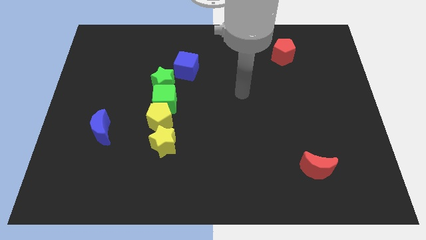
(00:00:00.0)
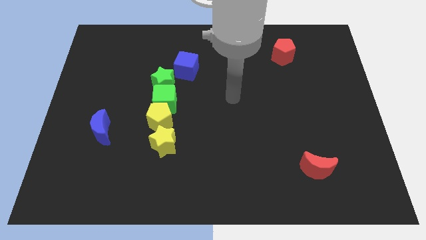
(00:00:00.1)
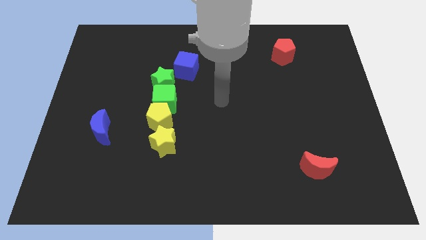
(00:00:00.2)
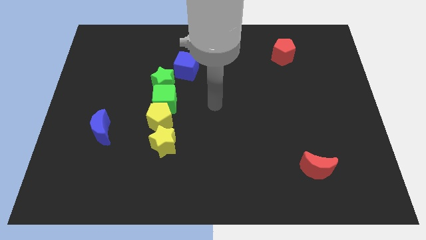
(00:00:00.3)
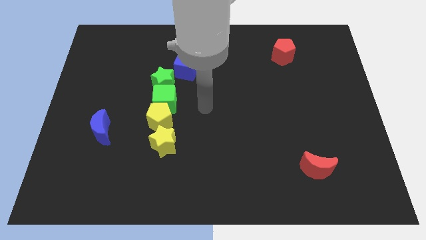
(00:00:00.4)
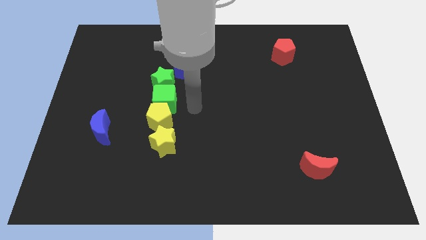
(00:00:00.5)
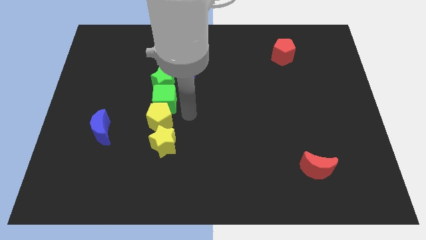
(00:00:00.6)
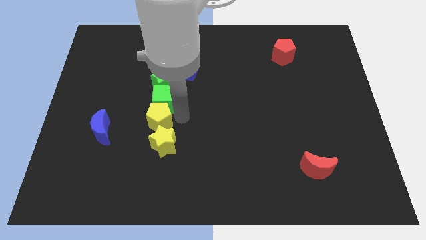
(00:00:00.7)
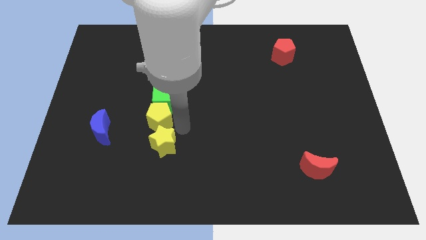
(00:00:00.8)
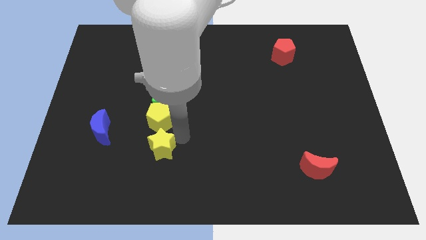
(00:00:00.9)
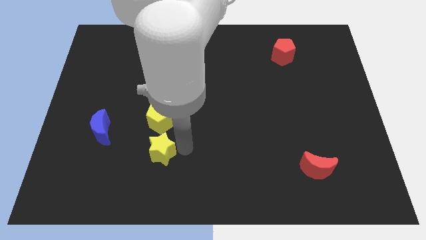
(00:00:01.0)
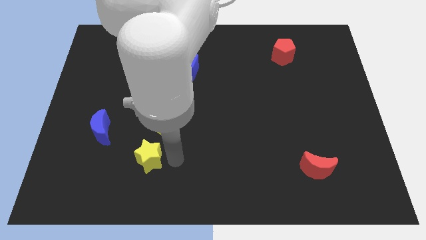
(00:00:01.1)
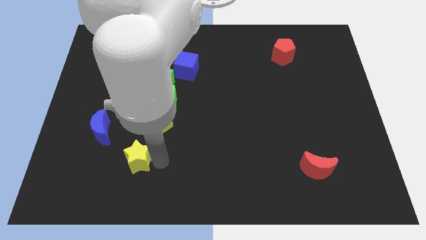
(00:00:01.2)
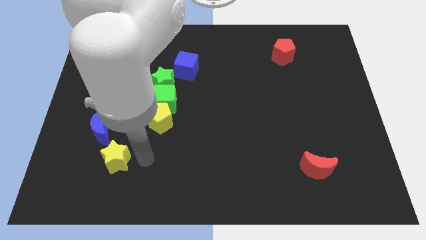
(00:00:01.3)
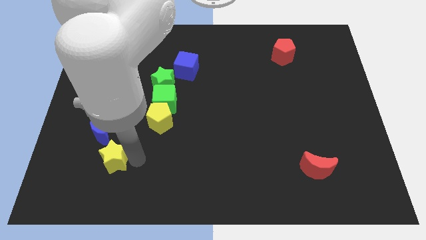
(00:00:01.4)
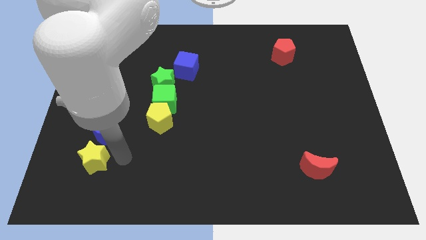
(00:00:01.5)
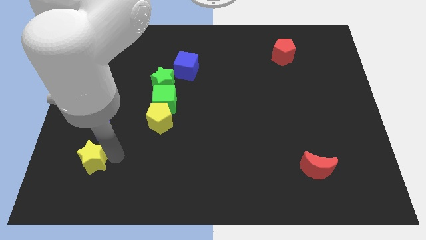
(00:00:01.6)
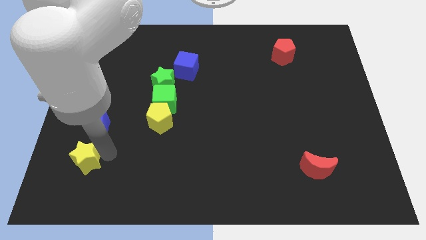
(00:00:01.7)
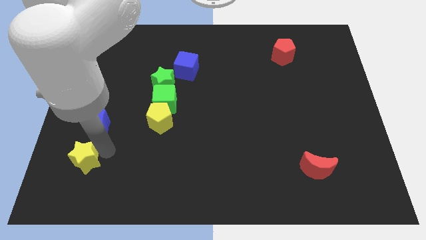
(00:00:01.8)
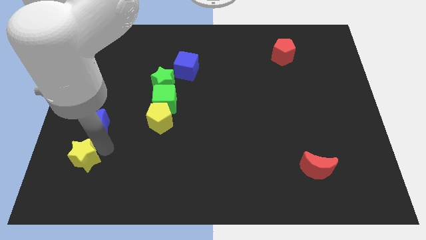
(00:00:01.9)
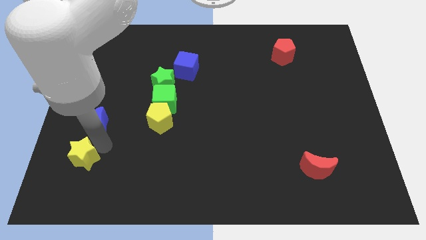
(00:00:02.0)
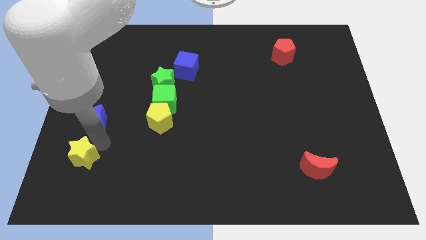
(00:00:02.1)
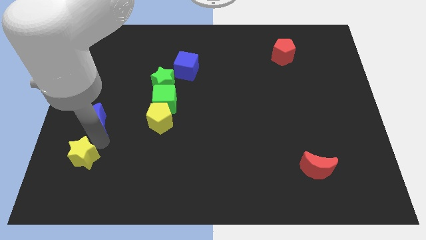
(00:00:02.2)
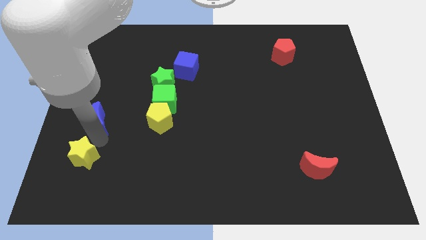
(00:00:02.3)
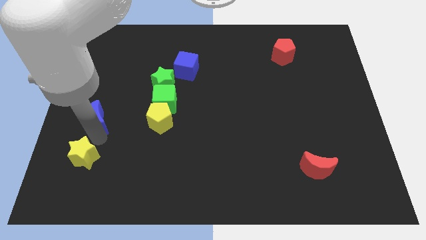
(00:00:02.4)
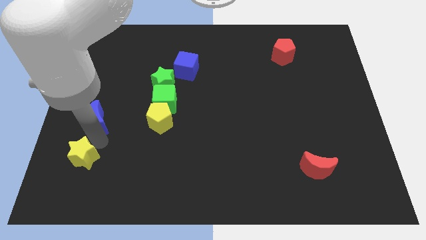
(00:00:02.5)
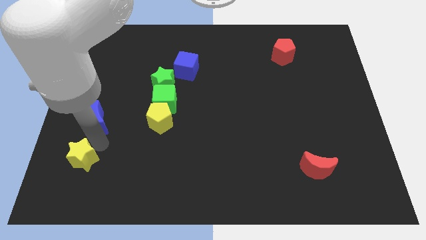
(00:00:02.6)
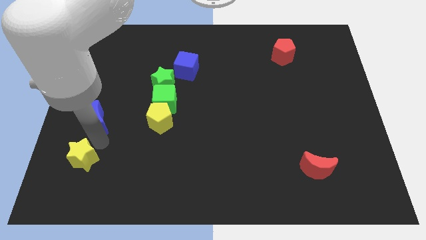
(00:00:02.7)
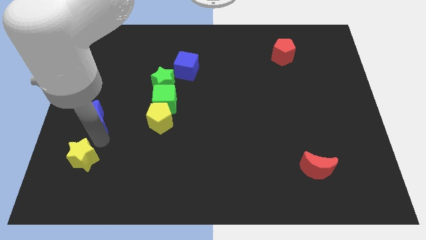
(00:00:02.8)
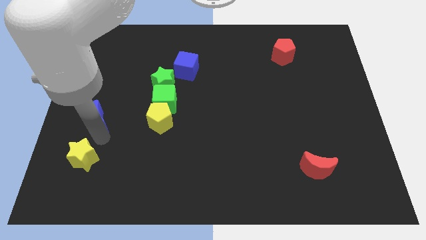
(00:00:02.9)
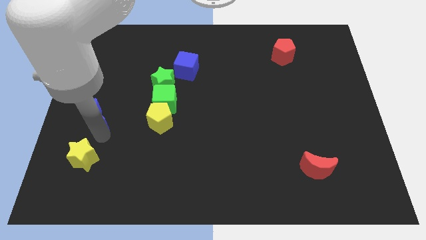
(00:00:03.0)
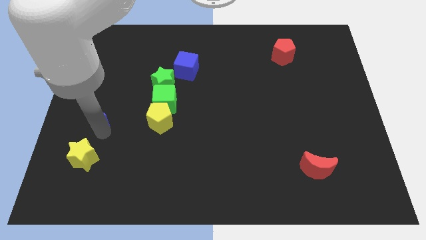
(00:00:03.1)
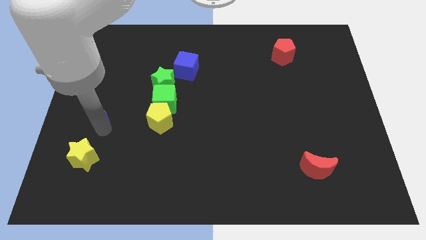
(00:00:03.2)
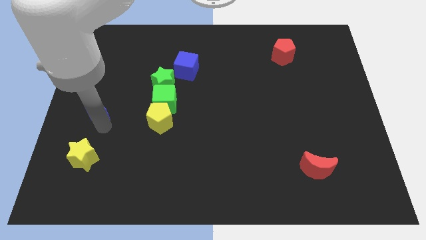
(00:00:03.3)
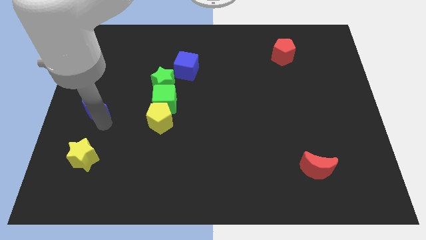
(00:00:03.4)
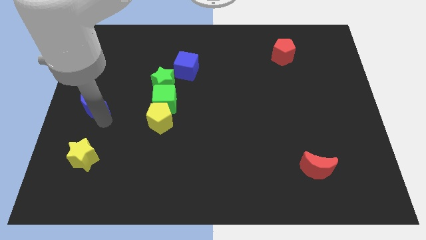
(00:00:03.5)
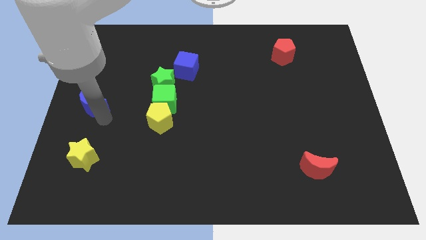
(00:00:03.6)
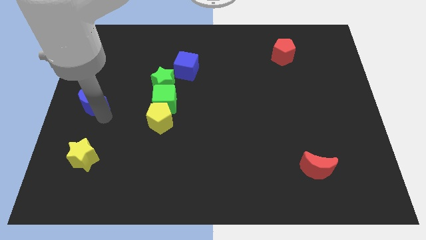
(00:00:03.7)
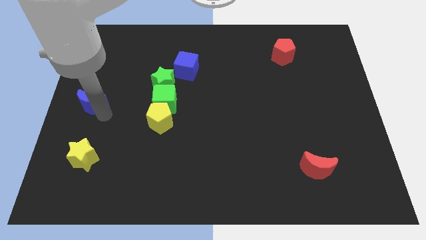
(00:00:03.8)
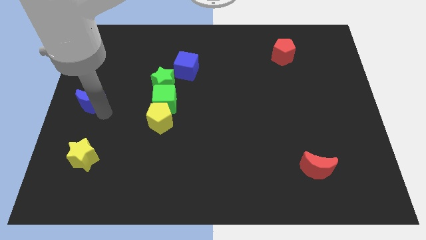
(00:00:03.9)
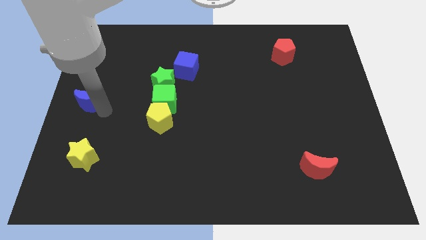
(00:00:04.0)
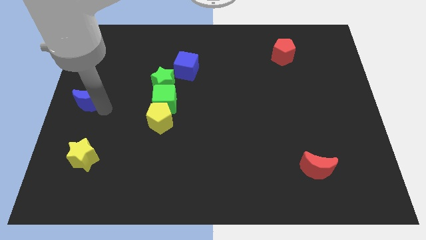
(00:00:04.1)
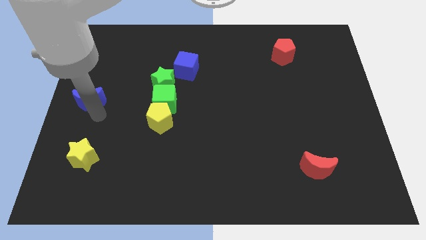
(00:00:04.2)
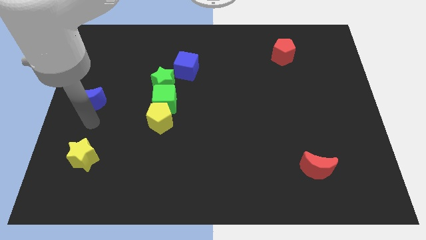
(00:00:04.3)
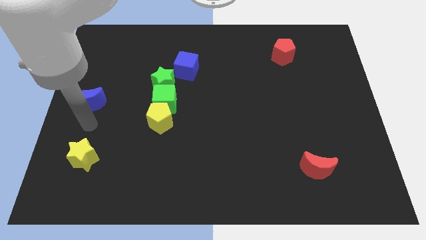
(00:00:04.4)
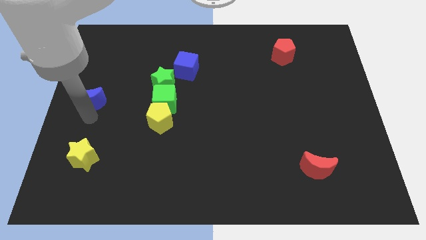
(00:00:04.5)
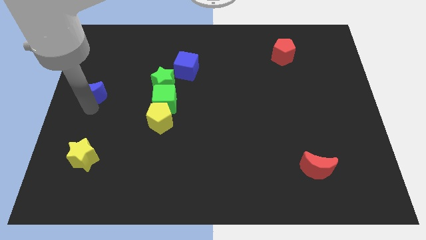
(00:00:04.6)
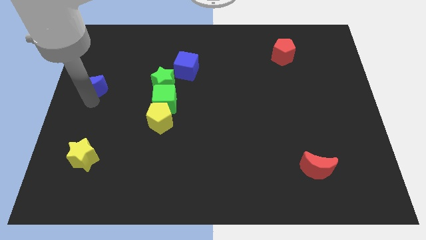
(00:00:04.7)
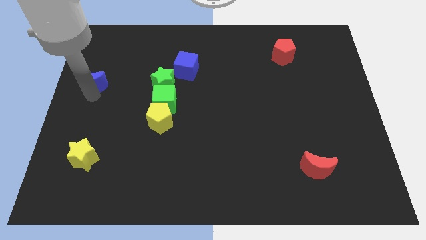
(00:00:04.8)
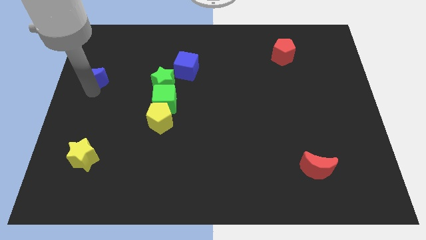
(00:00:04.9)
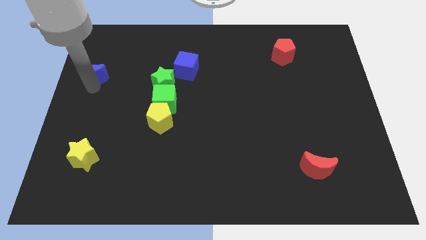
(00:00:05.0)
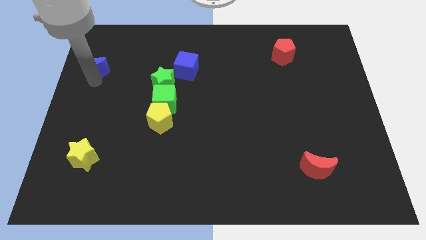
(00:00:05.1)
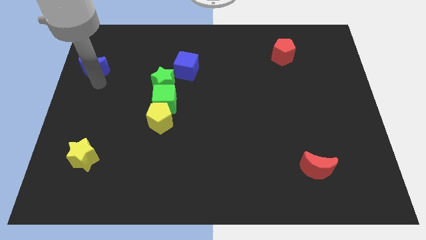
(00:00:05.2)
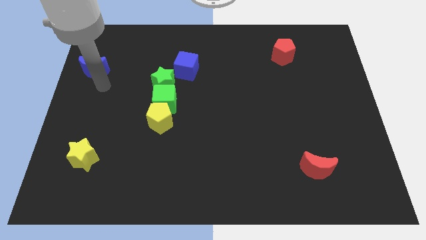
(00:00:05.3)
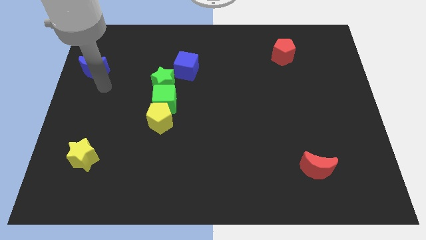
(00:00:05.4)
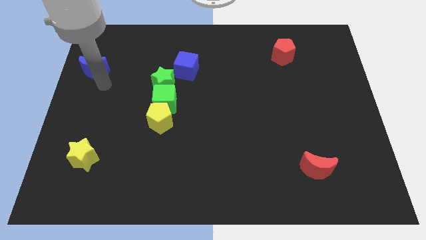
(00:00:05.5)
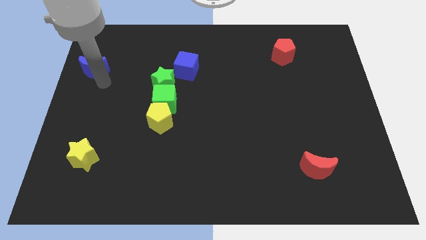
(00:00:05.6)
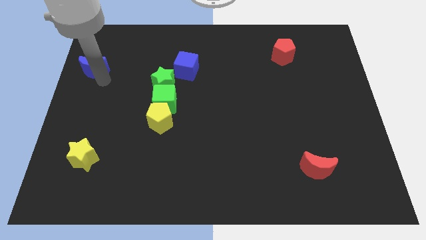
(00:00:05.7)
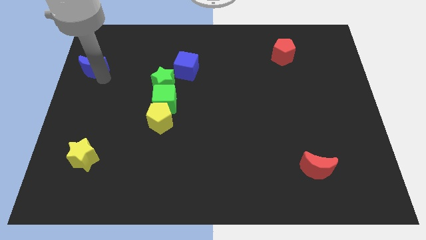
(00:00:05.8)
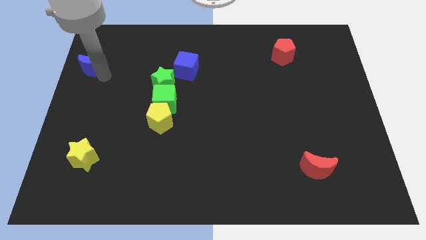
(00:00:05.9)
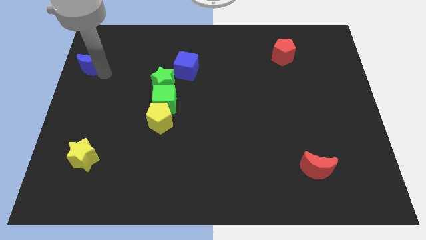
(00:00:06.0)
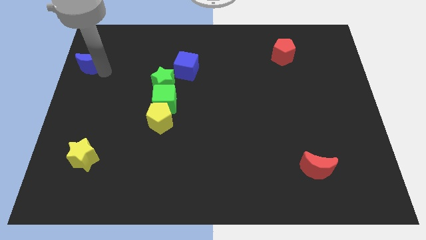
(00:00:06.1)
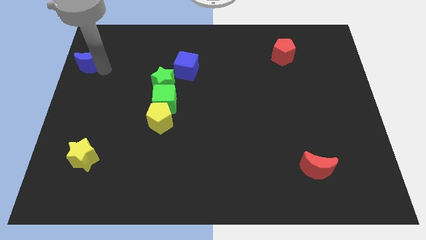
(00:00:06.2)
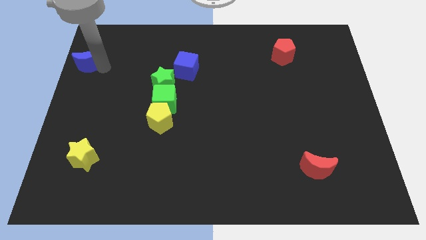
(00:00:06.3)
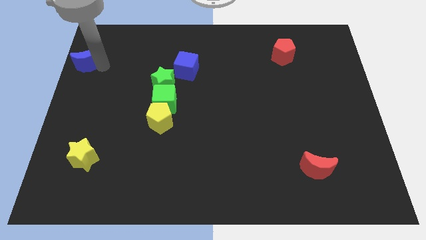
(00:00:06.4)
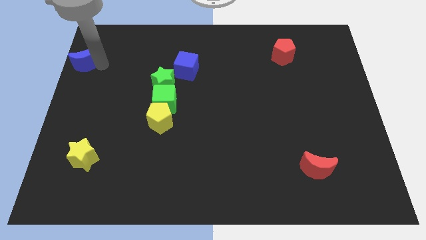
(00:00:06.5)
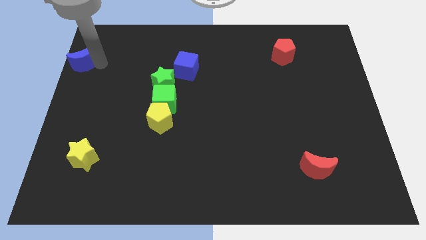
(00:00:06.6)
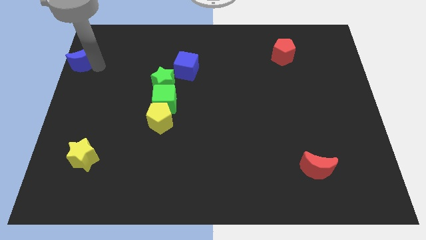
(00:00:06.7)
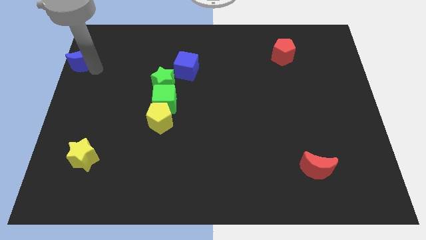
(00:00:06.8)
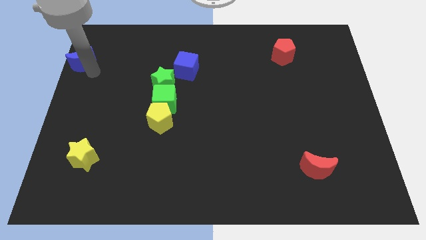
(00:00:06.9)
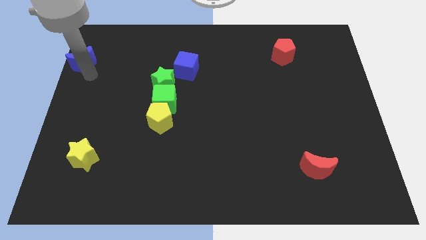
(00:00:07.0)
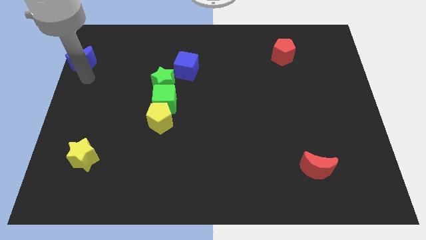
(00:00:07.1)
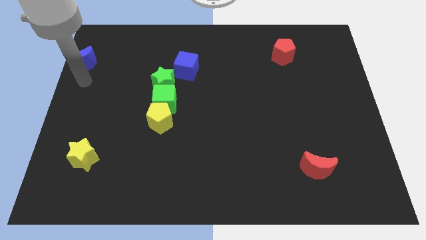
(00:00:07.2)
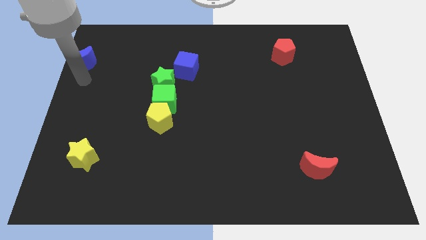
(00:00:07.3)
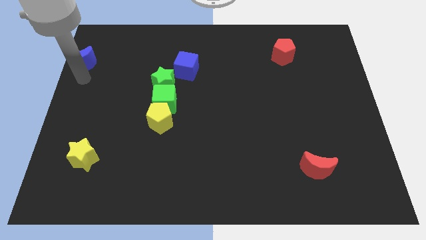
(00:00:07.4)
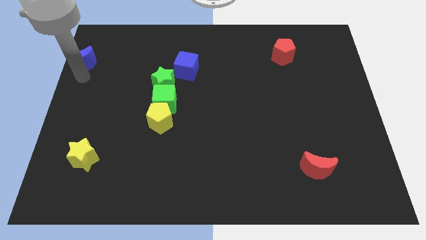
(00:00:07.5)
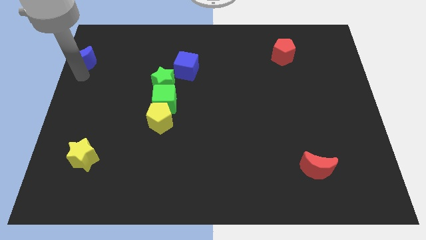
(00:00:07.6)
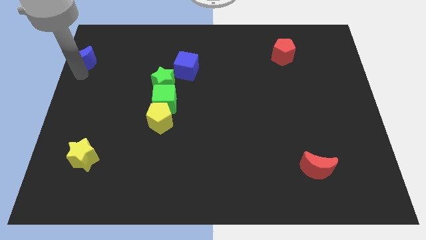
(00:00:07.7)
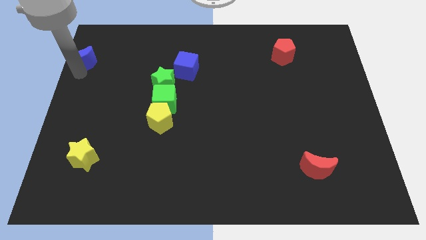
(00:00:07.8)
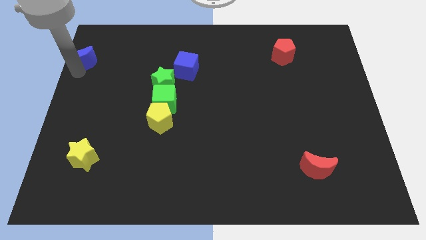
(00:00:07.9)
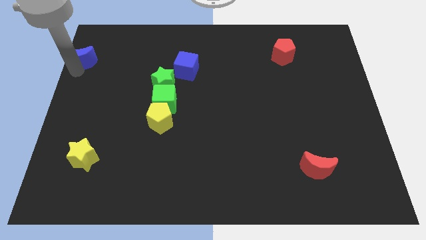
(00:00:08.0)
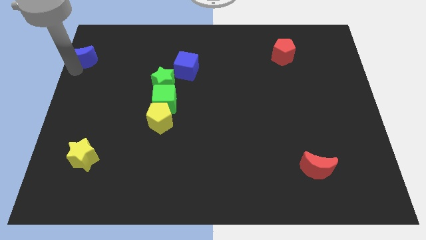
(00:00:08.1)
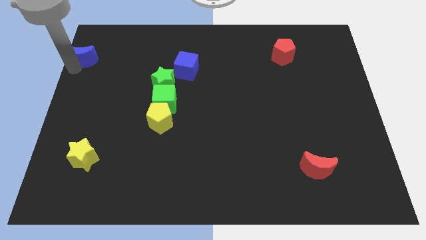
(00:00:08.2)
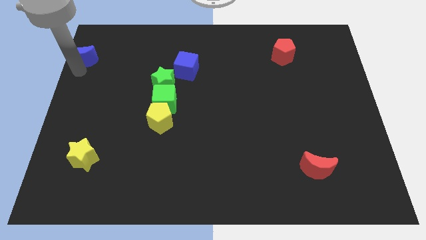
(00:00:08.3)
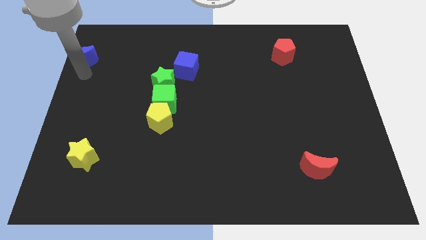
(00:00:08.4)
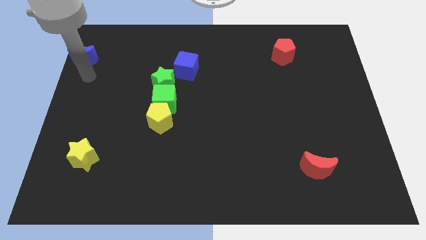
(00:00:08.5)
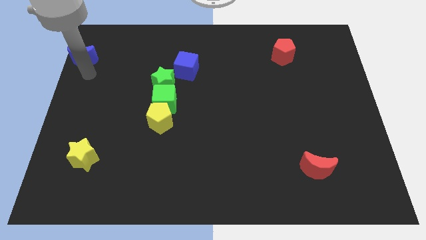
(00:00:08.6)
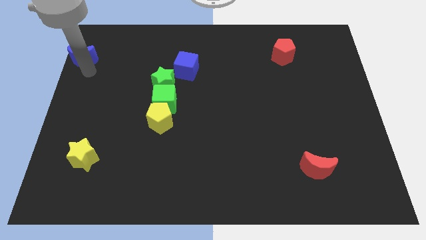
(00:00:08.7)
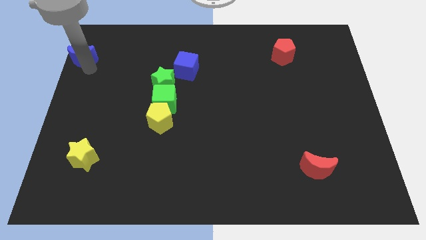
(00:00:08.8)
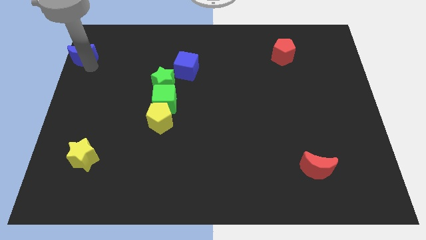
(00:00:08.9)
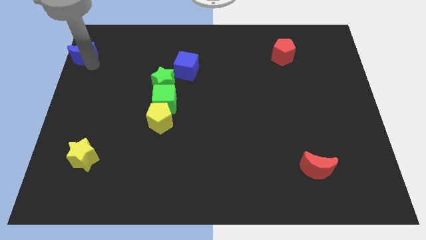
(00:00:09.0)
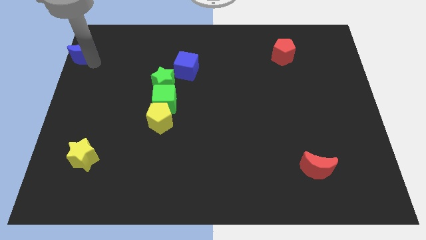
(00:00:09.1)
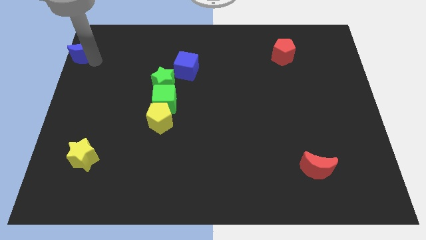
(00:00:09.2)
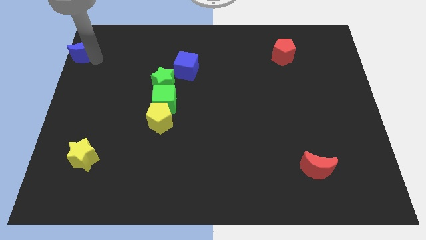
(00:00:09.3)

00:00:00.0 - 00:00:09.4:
move the blue moon to the top left of the board
